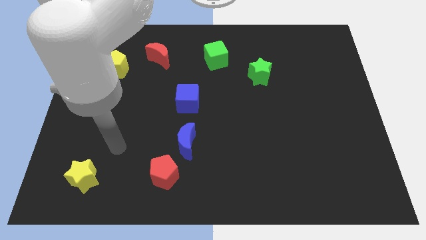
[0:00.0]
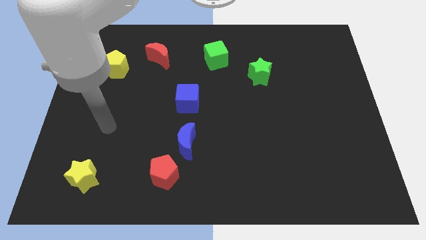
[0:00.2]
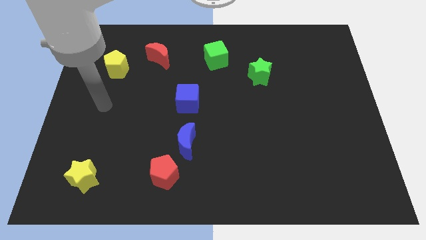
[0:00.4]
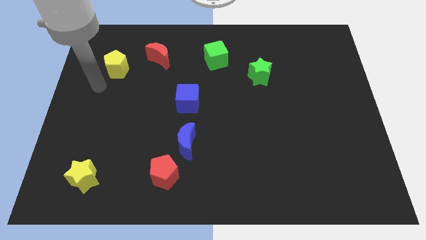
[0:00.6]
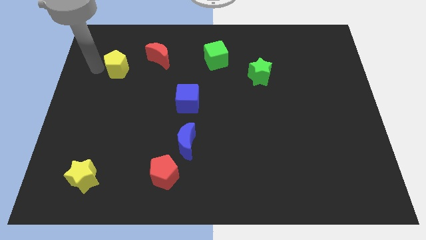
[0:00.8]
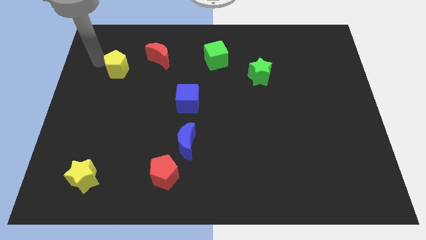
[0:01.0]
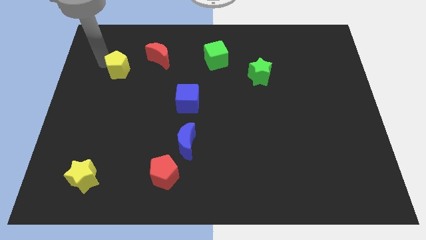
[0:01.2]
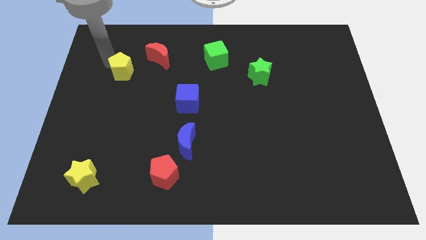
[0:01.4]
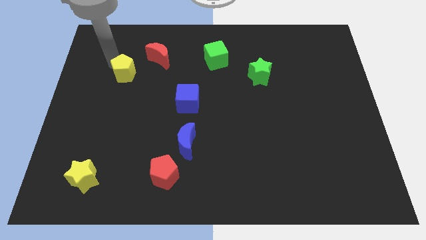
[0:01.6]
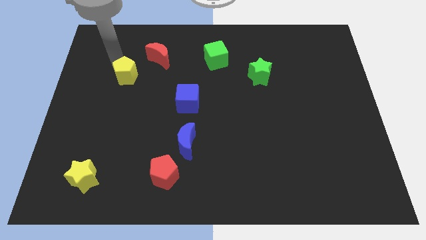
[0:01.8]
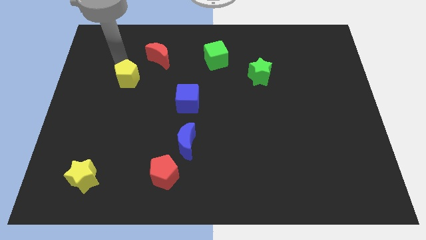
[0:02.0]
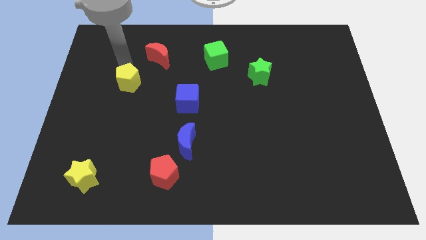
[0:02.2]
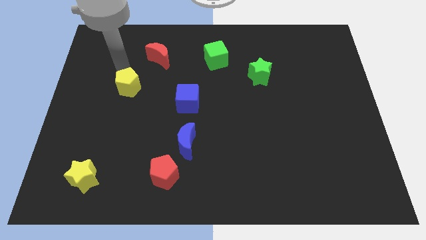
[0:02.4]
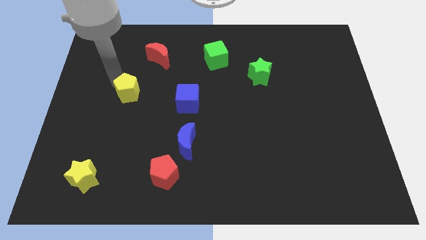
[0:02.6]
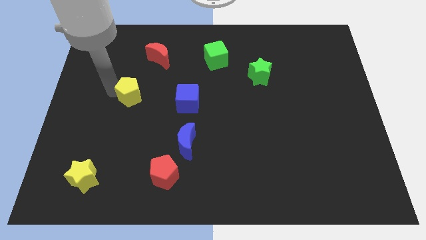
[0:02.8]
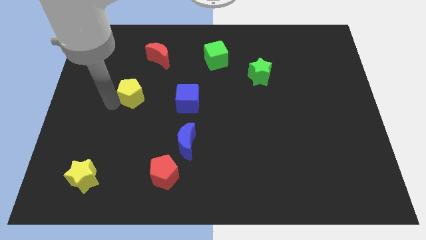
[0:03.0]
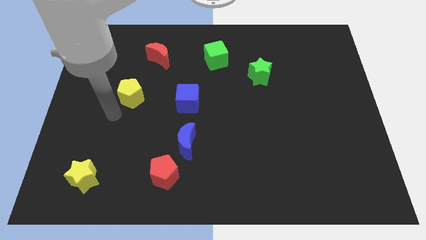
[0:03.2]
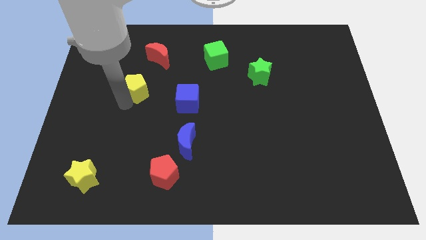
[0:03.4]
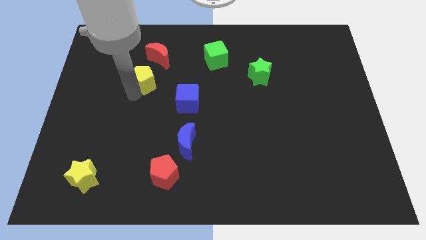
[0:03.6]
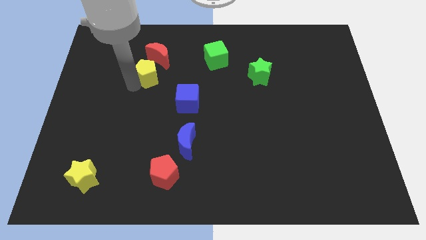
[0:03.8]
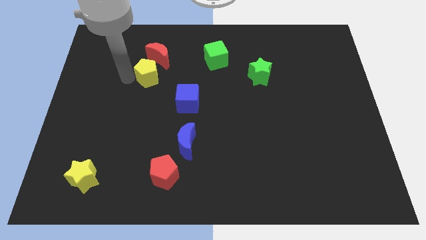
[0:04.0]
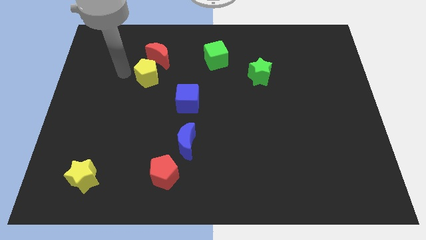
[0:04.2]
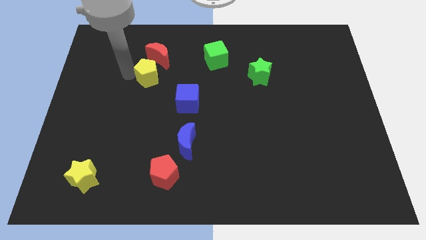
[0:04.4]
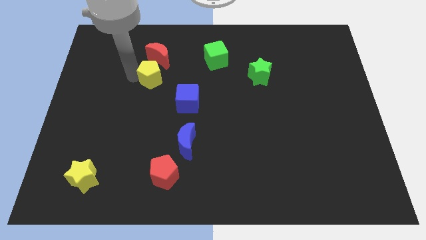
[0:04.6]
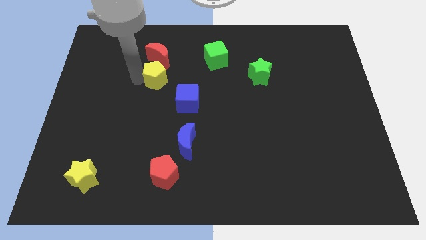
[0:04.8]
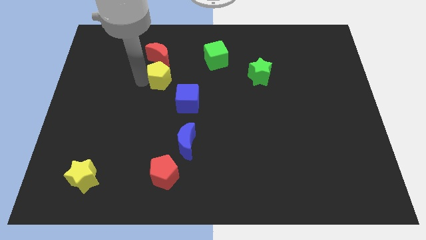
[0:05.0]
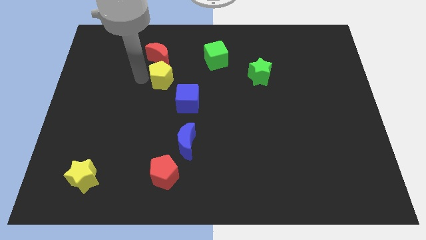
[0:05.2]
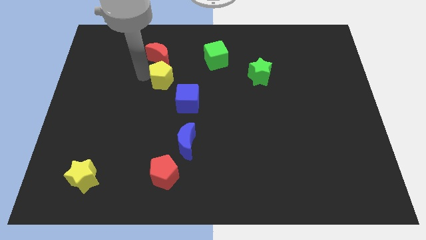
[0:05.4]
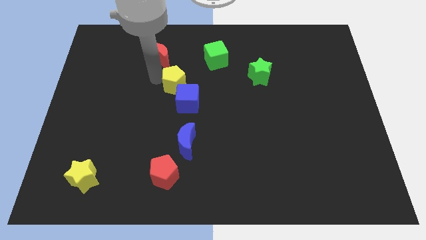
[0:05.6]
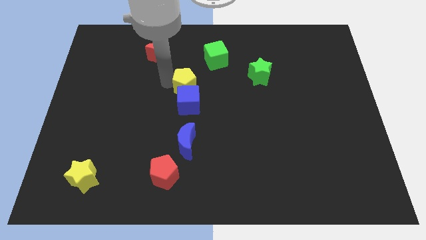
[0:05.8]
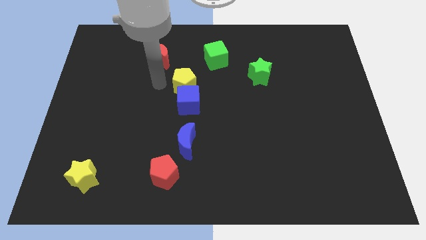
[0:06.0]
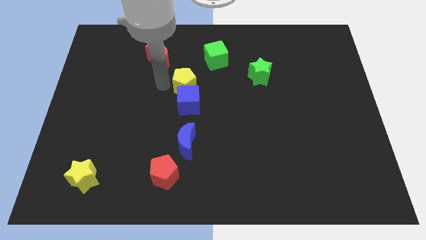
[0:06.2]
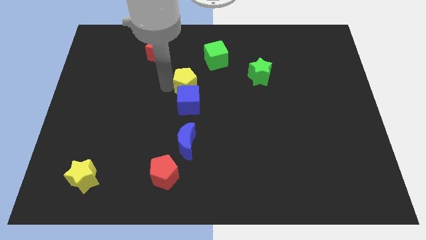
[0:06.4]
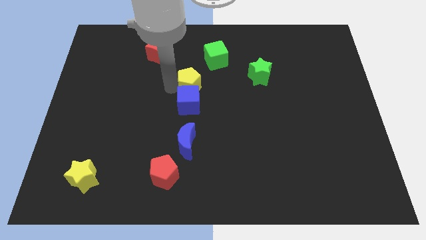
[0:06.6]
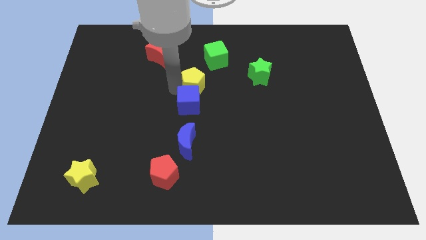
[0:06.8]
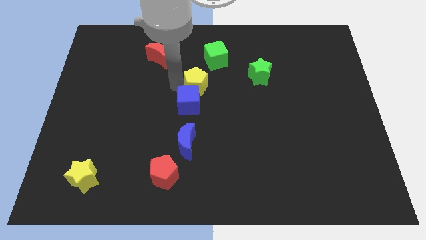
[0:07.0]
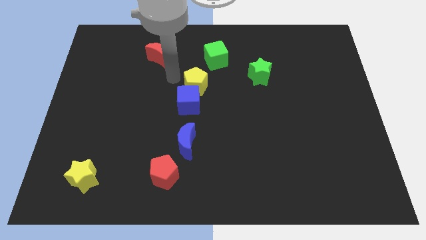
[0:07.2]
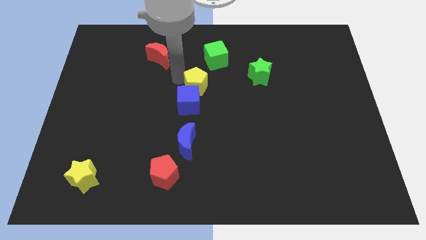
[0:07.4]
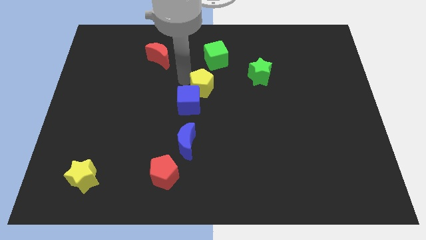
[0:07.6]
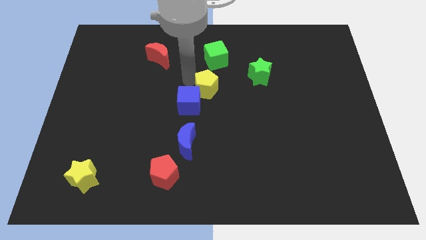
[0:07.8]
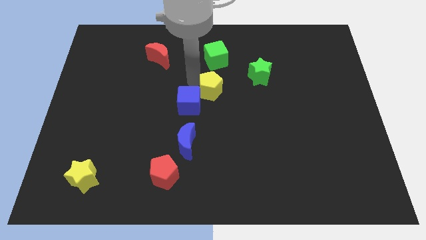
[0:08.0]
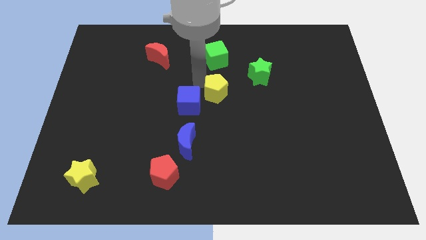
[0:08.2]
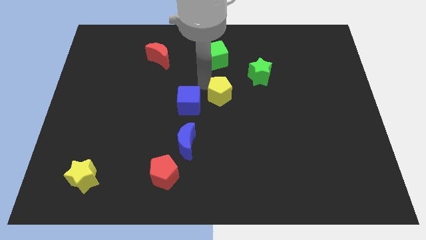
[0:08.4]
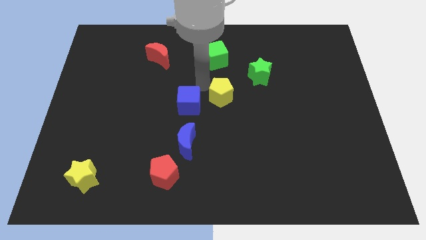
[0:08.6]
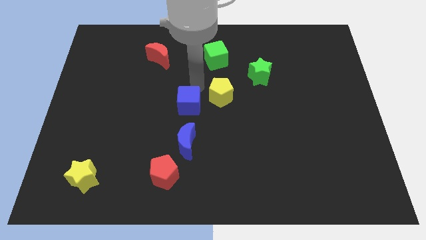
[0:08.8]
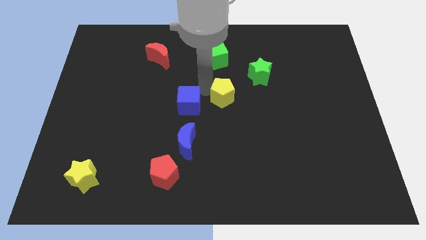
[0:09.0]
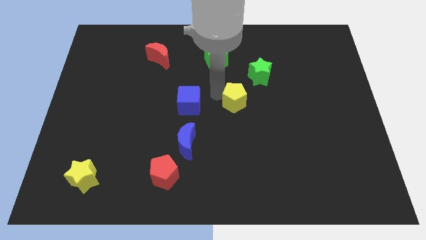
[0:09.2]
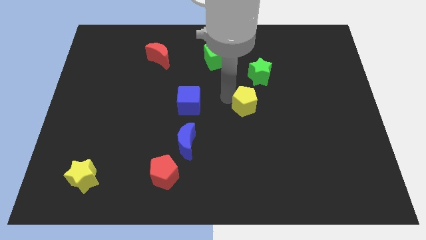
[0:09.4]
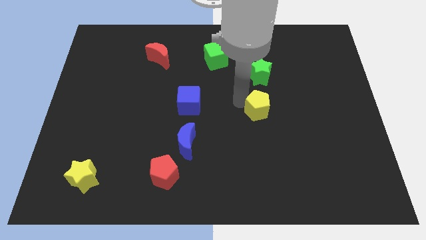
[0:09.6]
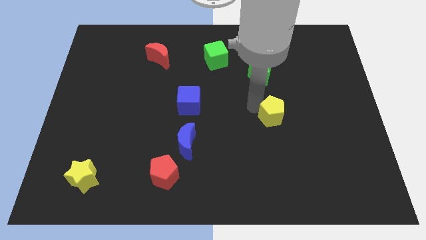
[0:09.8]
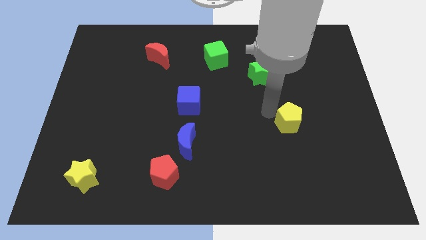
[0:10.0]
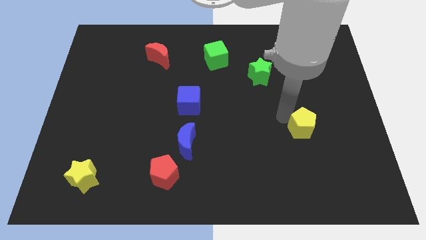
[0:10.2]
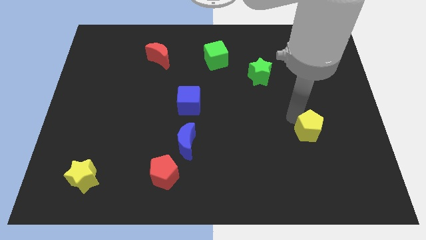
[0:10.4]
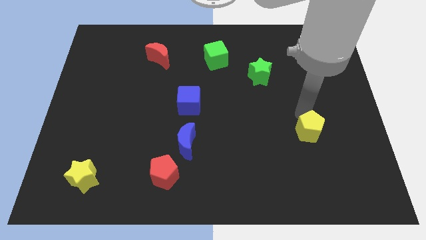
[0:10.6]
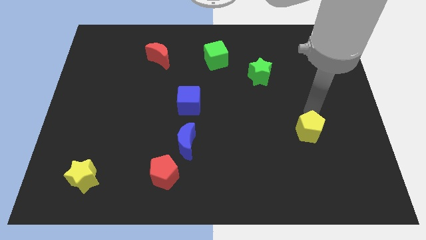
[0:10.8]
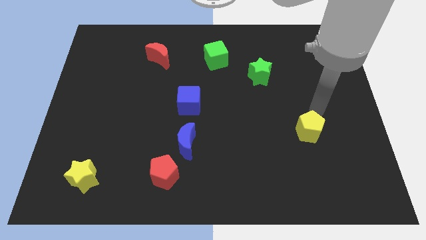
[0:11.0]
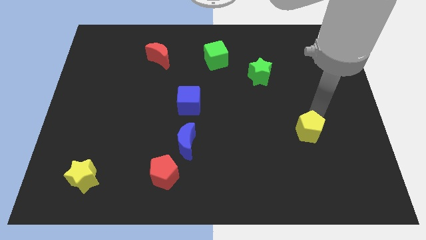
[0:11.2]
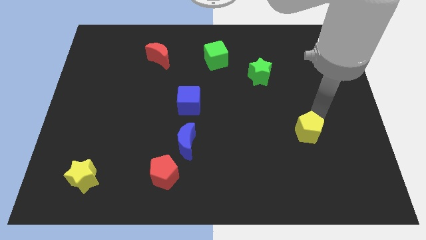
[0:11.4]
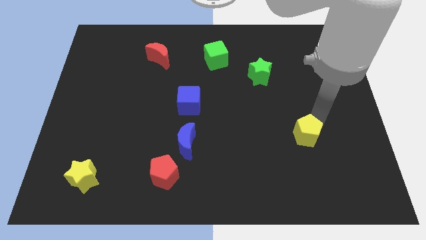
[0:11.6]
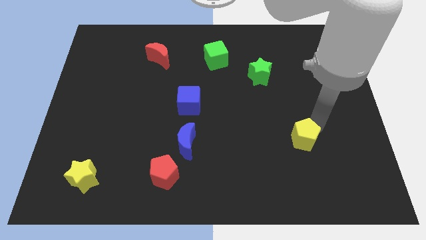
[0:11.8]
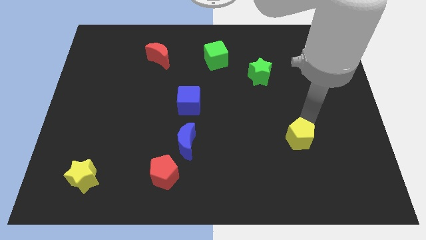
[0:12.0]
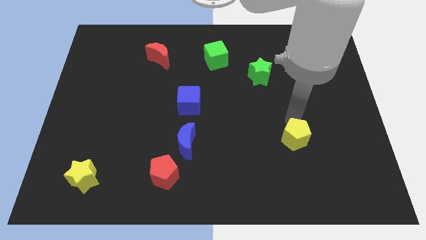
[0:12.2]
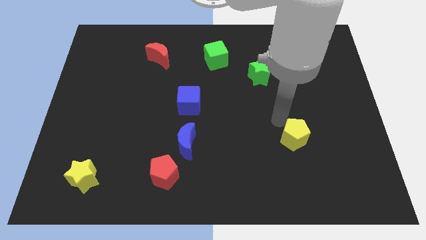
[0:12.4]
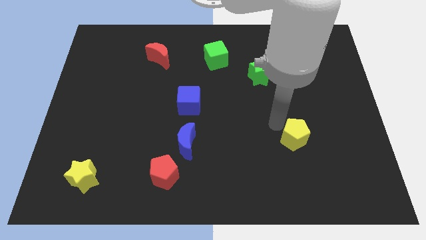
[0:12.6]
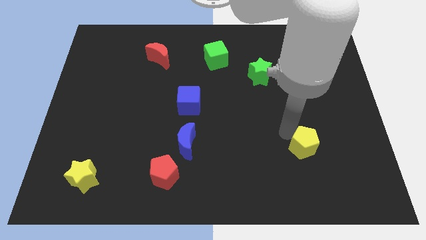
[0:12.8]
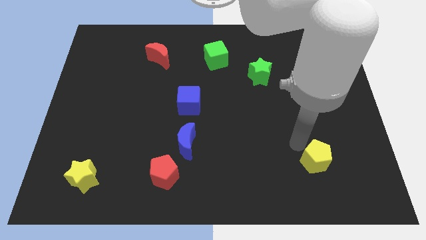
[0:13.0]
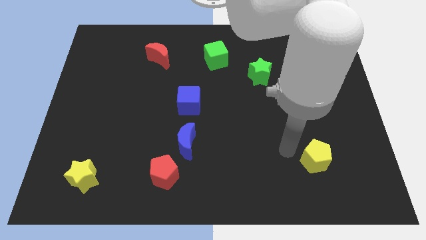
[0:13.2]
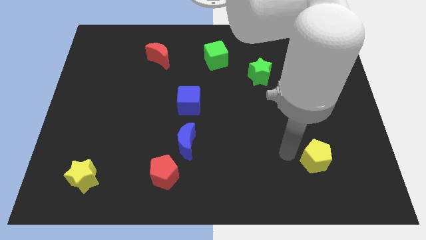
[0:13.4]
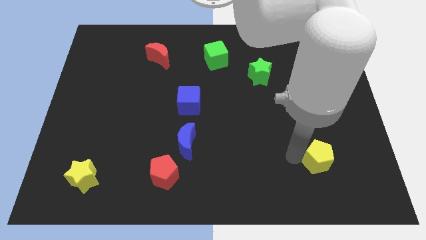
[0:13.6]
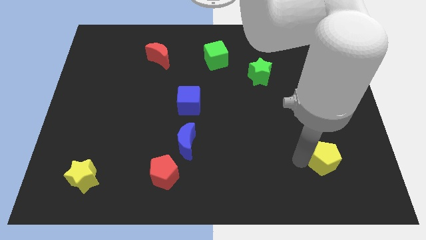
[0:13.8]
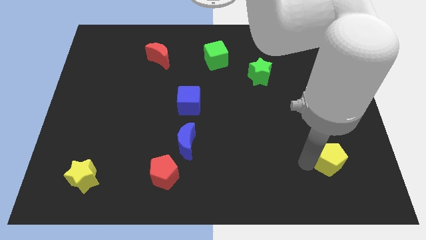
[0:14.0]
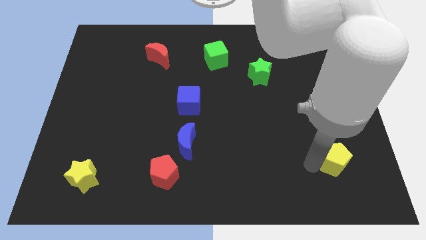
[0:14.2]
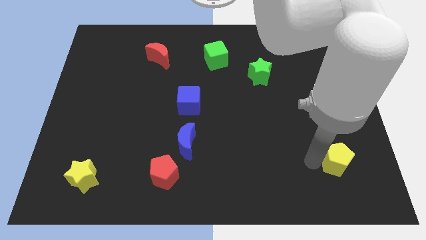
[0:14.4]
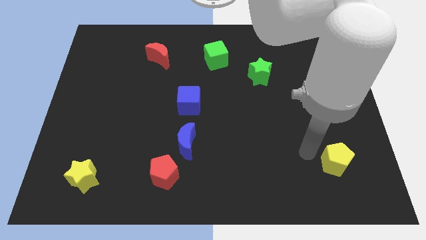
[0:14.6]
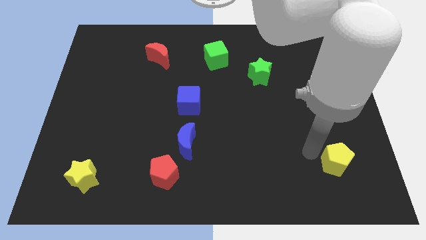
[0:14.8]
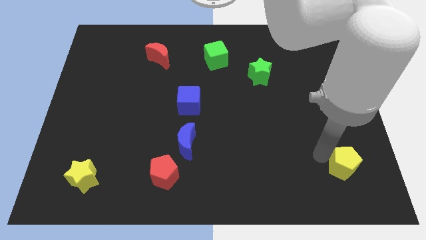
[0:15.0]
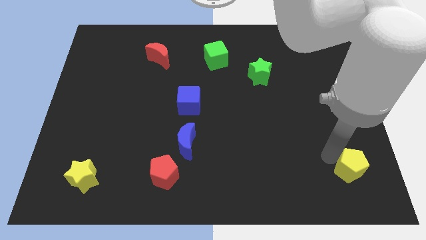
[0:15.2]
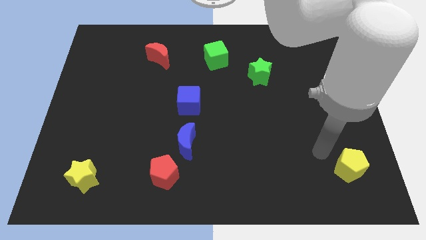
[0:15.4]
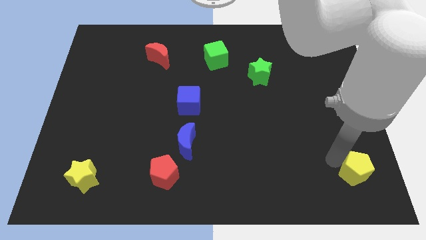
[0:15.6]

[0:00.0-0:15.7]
slide the yellow pentagon to the bottom right corner
